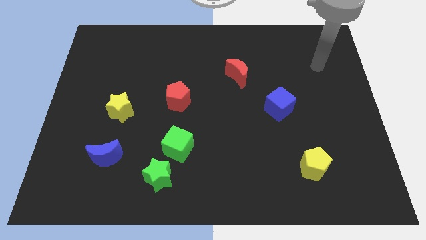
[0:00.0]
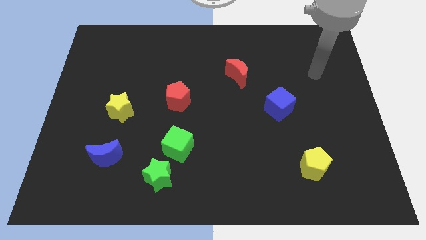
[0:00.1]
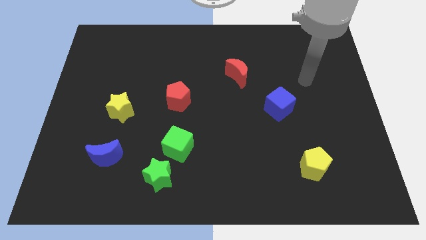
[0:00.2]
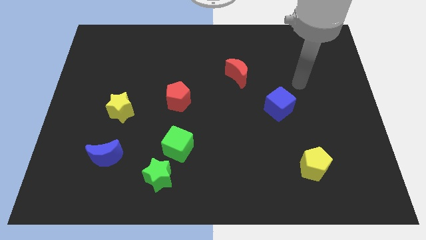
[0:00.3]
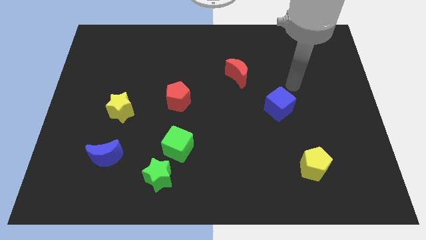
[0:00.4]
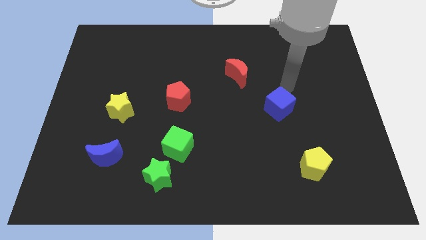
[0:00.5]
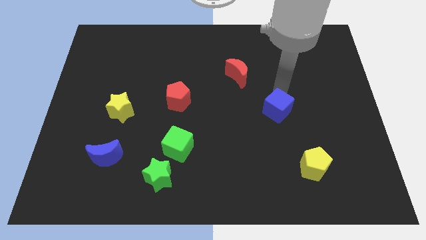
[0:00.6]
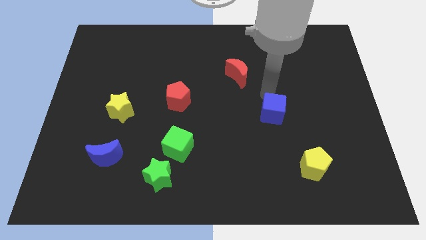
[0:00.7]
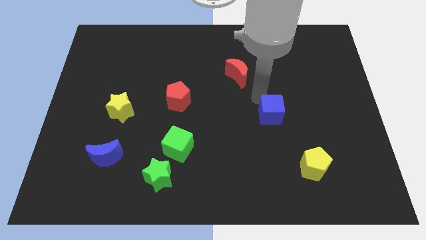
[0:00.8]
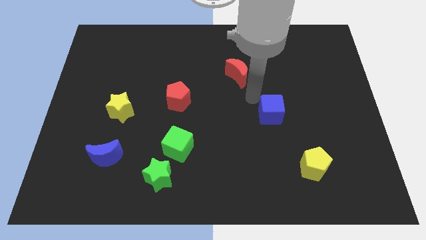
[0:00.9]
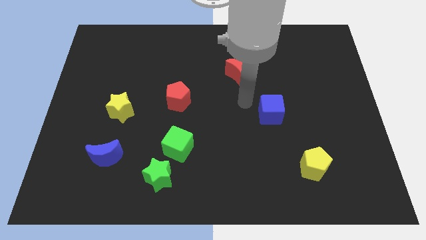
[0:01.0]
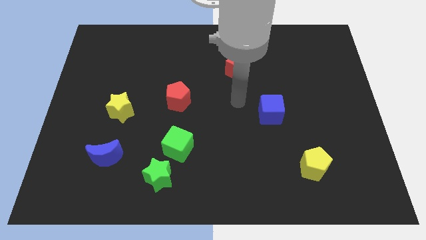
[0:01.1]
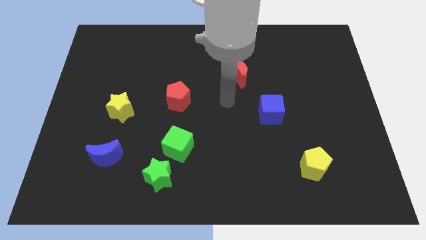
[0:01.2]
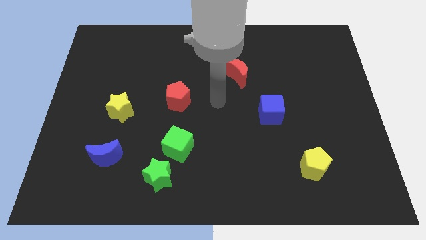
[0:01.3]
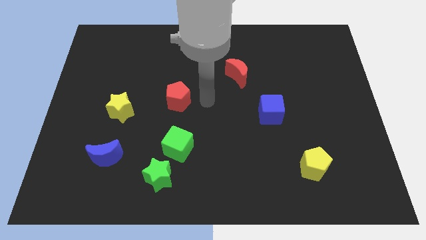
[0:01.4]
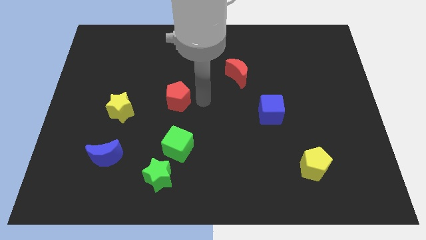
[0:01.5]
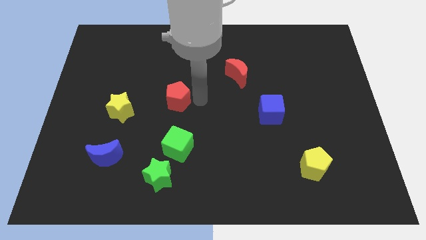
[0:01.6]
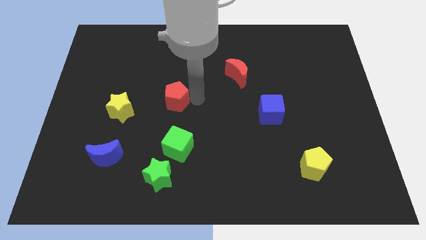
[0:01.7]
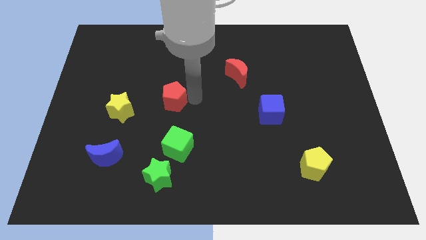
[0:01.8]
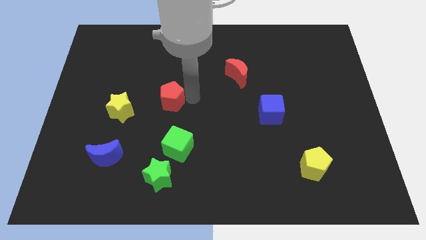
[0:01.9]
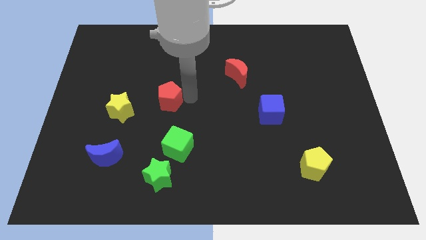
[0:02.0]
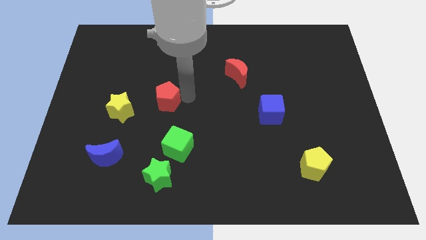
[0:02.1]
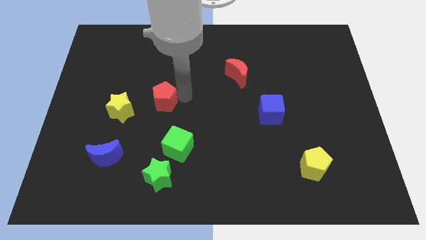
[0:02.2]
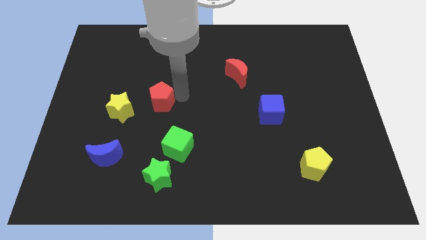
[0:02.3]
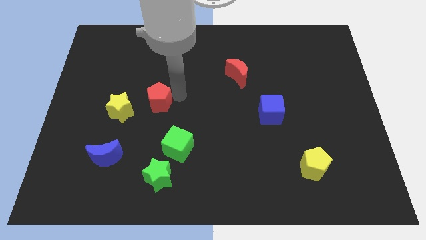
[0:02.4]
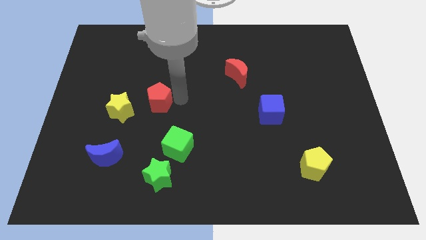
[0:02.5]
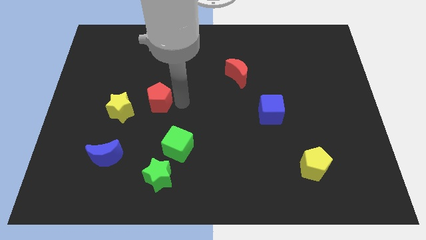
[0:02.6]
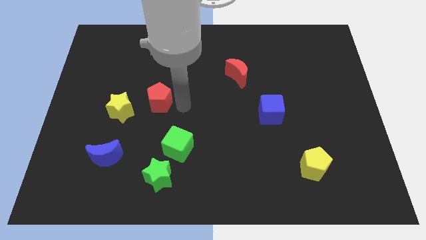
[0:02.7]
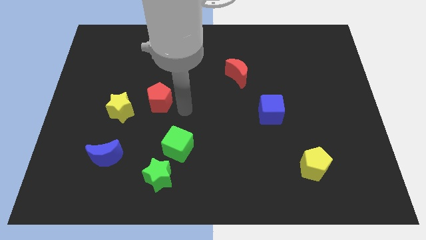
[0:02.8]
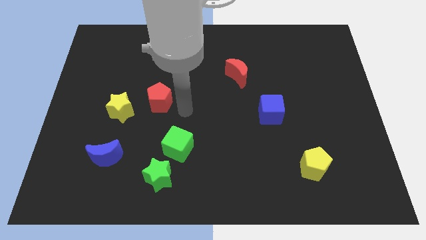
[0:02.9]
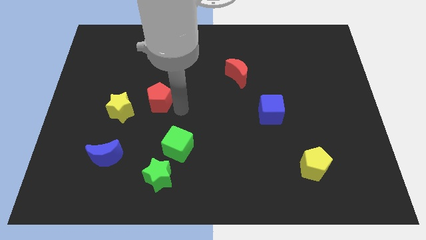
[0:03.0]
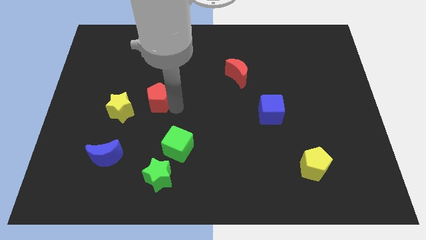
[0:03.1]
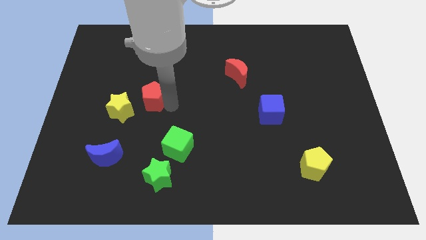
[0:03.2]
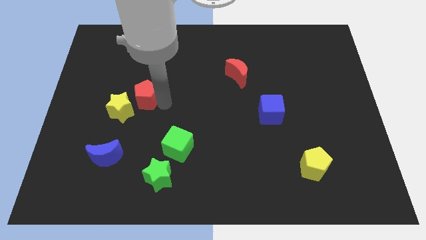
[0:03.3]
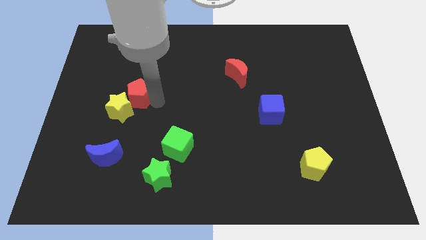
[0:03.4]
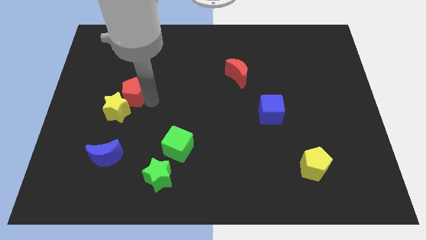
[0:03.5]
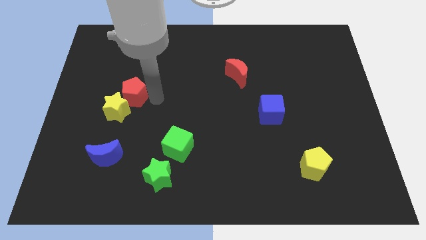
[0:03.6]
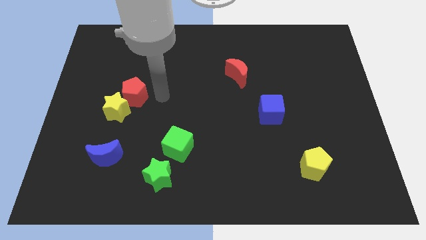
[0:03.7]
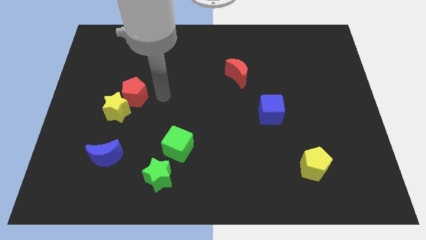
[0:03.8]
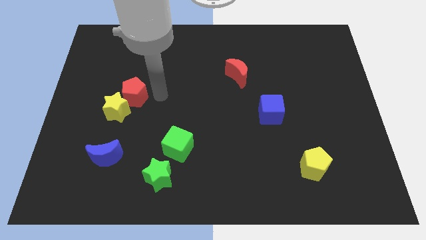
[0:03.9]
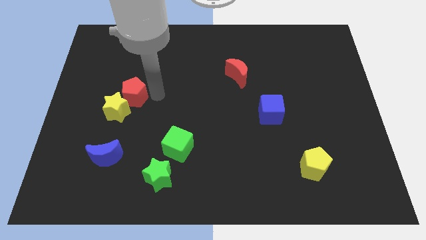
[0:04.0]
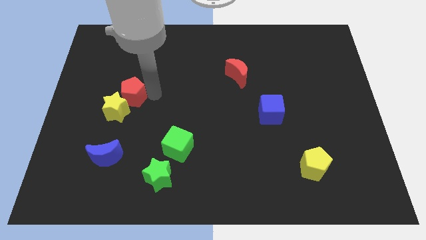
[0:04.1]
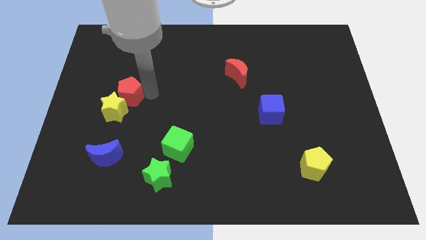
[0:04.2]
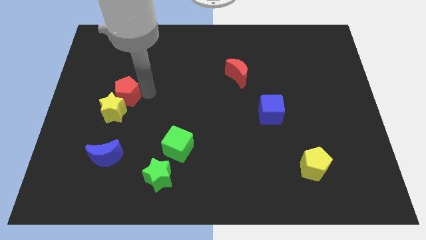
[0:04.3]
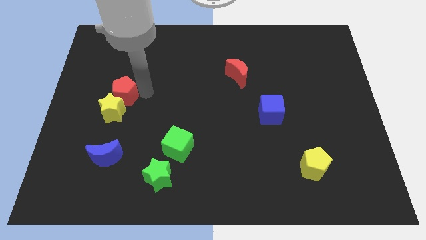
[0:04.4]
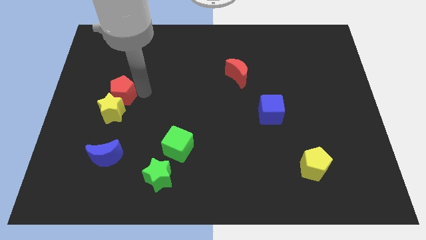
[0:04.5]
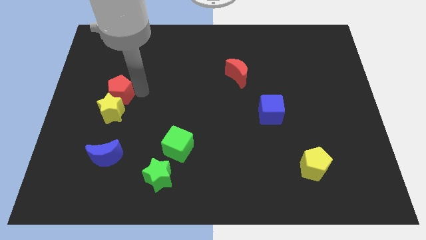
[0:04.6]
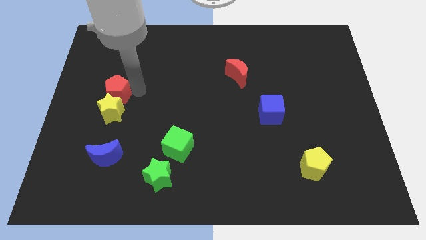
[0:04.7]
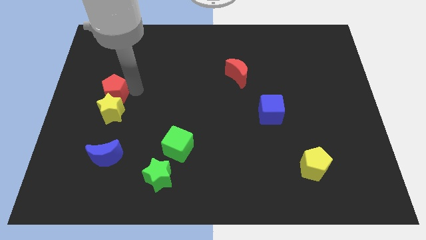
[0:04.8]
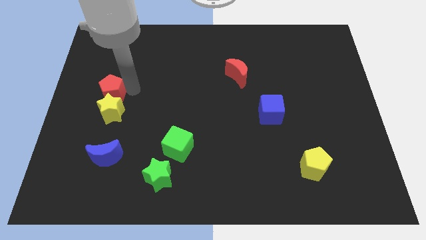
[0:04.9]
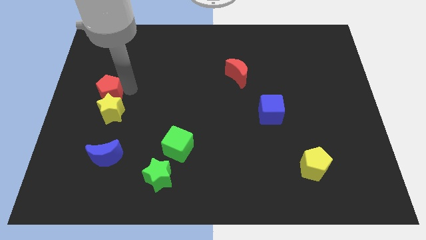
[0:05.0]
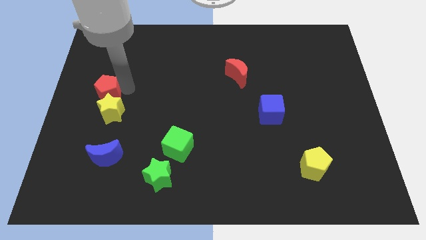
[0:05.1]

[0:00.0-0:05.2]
move the red pentagon to the left side

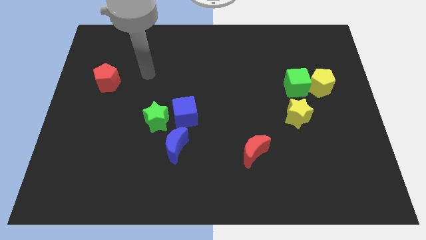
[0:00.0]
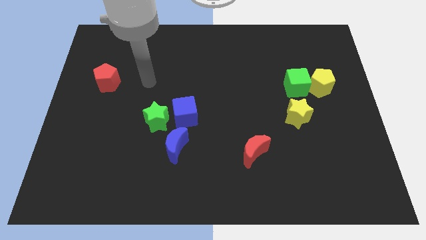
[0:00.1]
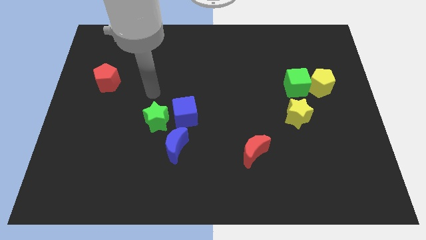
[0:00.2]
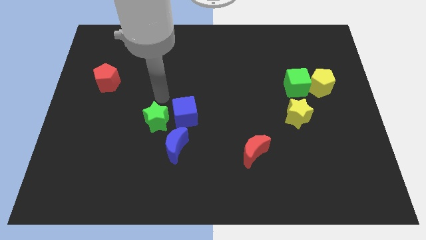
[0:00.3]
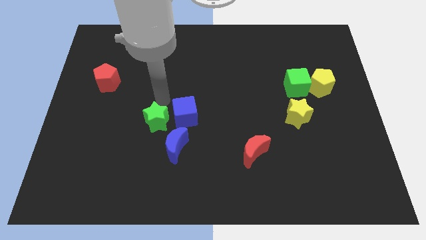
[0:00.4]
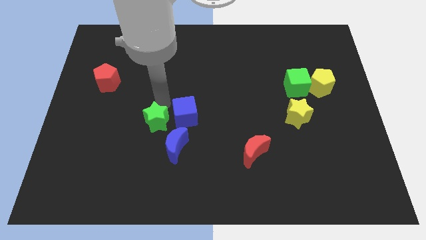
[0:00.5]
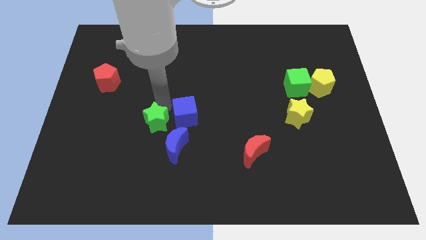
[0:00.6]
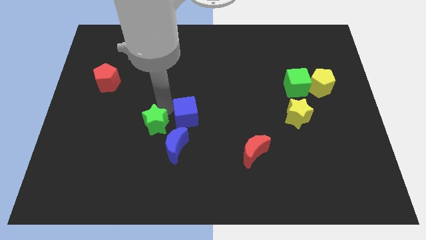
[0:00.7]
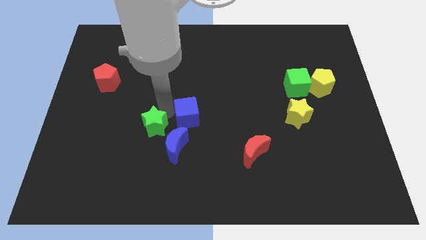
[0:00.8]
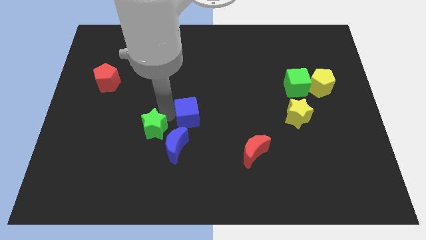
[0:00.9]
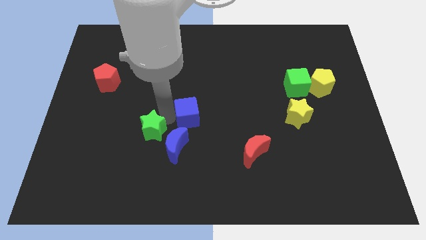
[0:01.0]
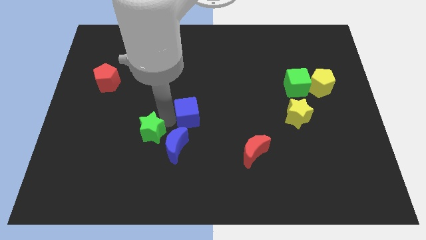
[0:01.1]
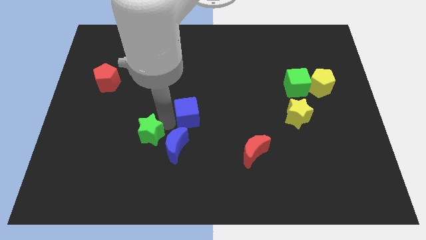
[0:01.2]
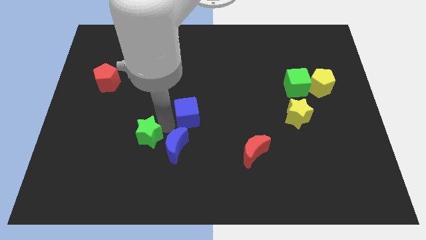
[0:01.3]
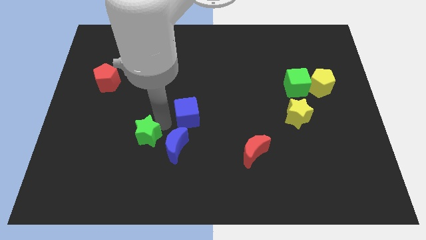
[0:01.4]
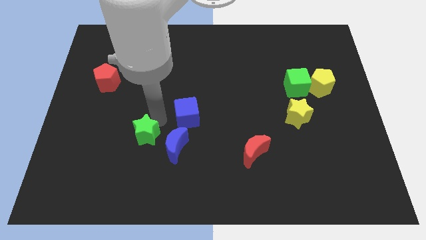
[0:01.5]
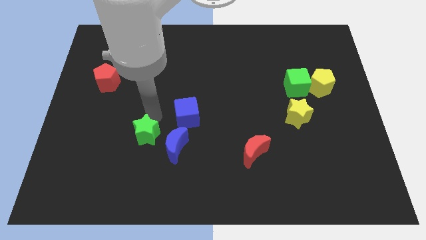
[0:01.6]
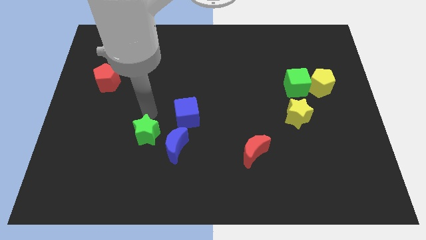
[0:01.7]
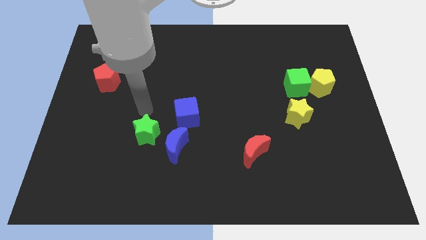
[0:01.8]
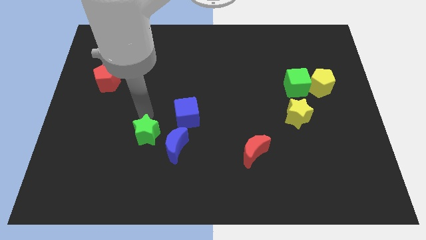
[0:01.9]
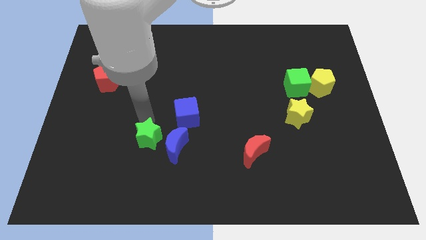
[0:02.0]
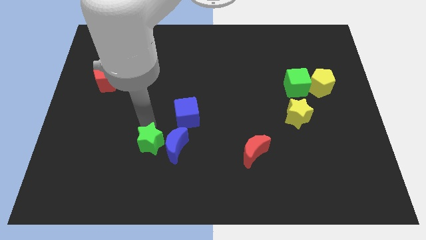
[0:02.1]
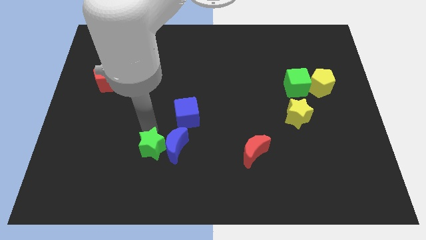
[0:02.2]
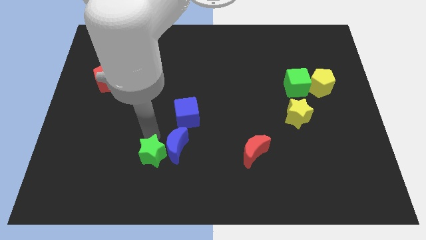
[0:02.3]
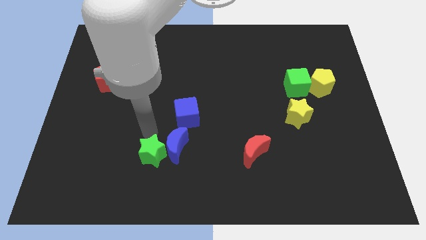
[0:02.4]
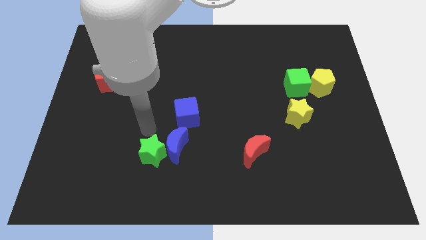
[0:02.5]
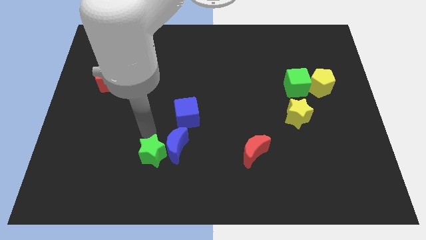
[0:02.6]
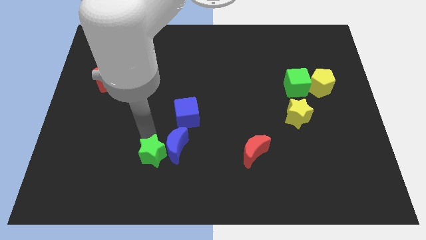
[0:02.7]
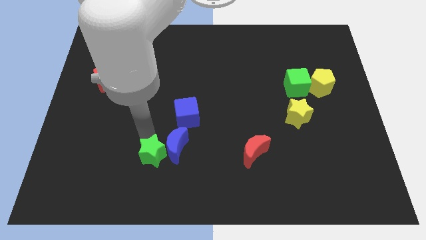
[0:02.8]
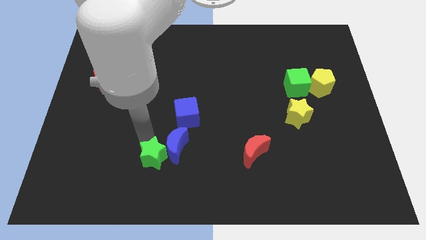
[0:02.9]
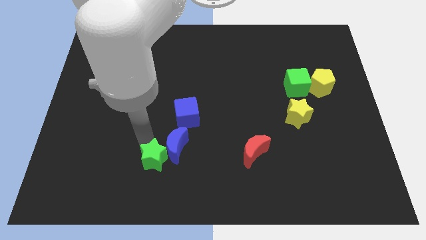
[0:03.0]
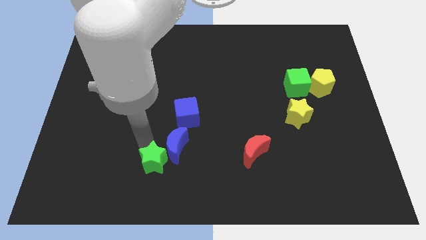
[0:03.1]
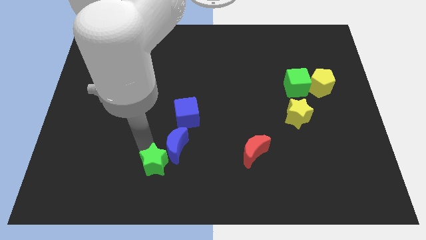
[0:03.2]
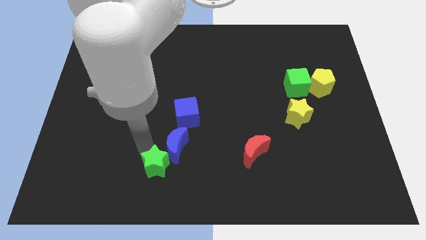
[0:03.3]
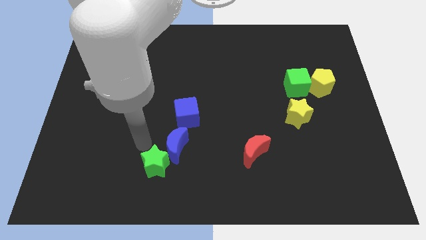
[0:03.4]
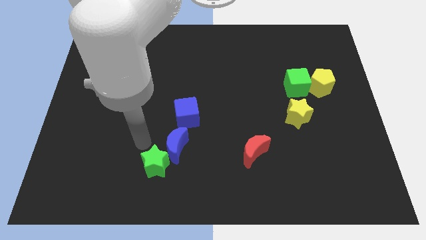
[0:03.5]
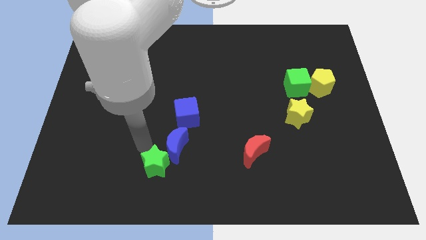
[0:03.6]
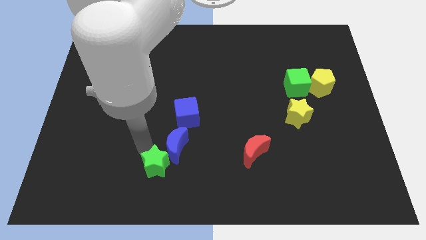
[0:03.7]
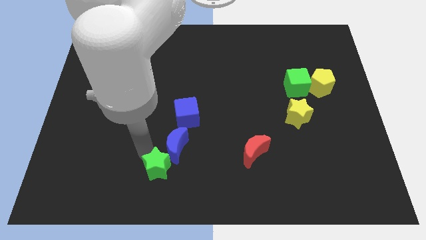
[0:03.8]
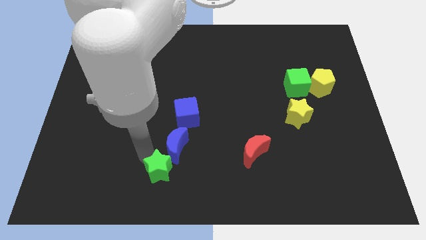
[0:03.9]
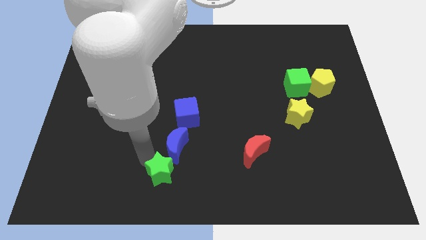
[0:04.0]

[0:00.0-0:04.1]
push the green star to the bottom side
